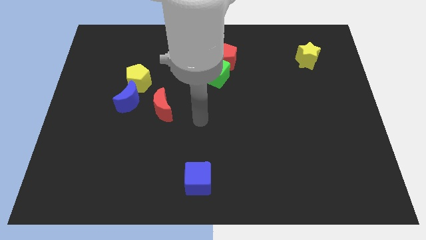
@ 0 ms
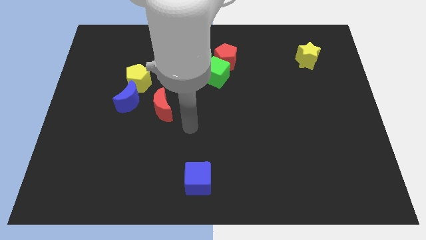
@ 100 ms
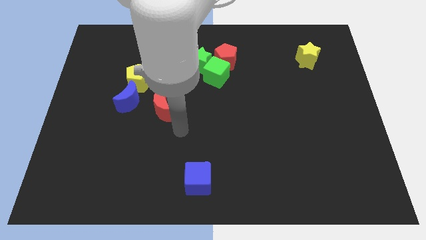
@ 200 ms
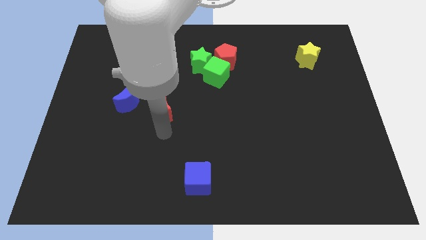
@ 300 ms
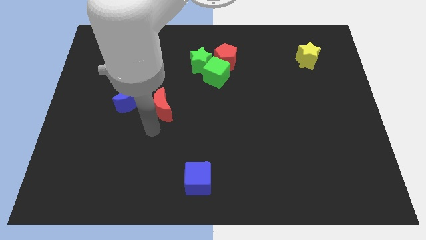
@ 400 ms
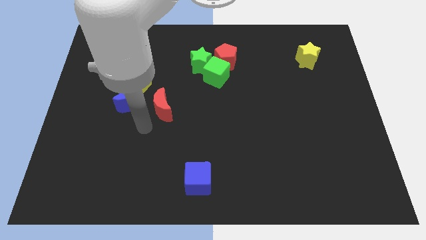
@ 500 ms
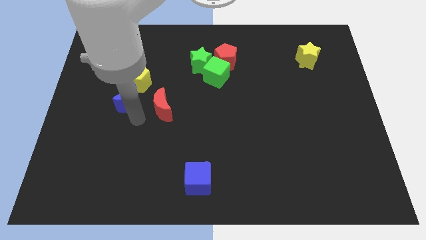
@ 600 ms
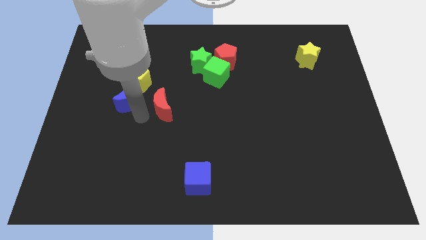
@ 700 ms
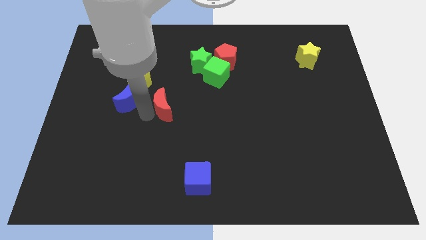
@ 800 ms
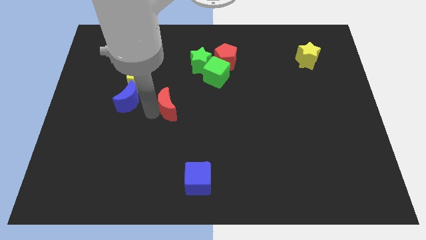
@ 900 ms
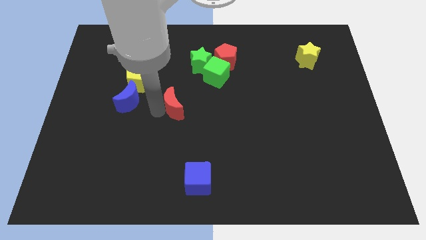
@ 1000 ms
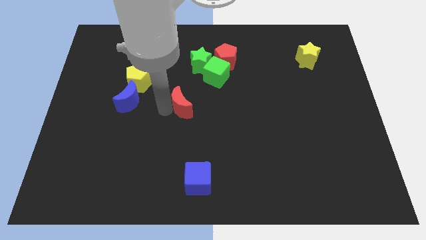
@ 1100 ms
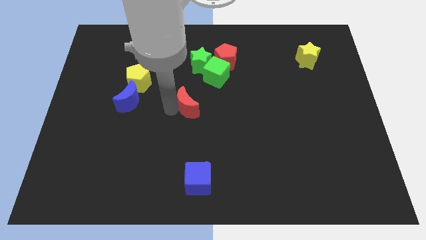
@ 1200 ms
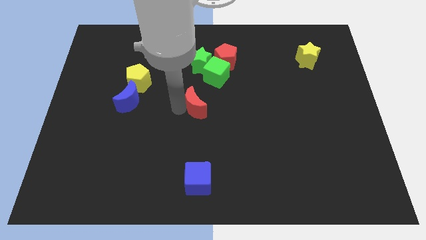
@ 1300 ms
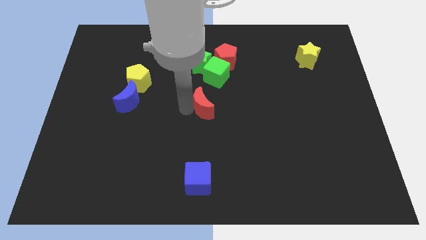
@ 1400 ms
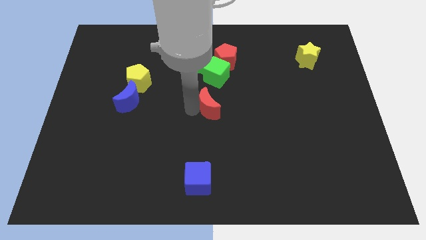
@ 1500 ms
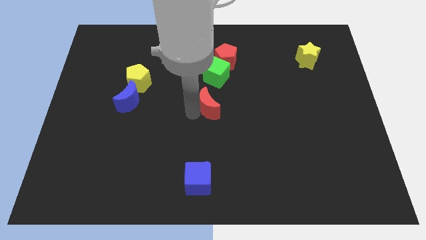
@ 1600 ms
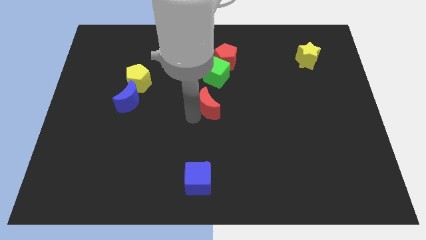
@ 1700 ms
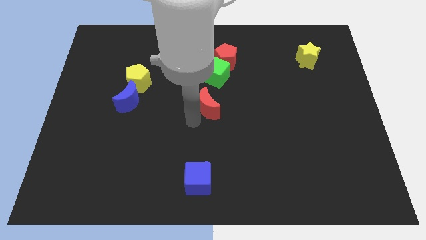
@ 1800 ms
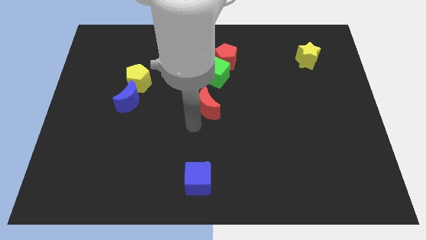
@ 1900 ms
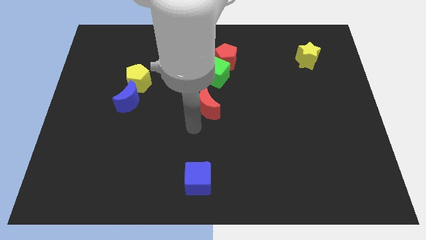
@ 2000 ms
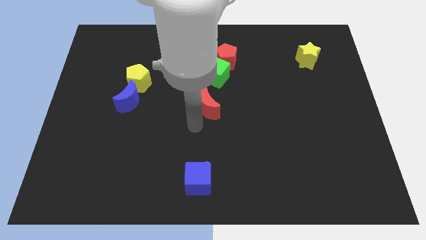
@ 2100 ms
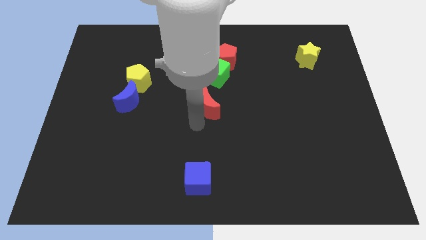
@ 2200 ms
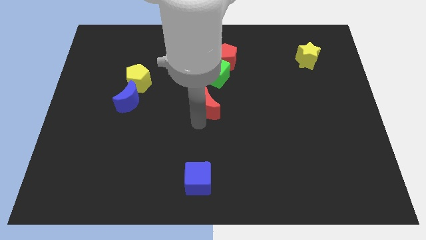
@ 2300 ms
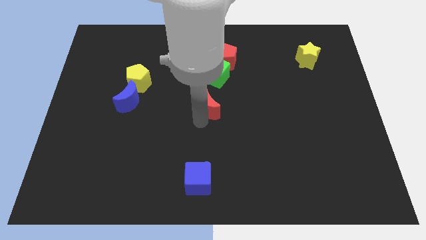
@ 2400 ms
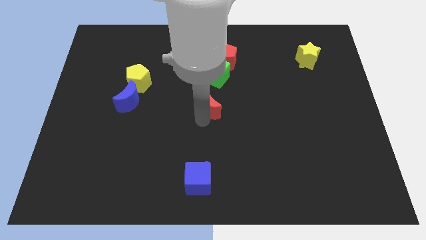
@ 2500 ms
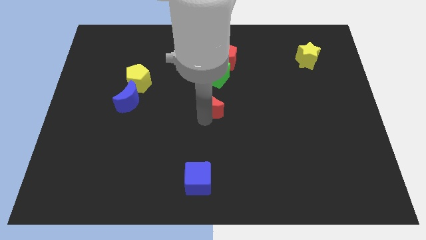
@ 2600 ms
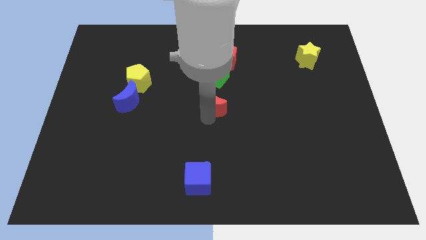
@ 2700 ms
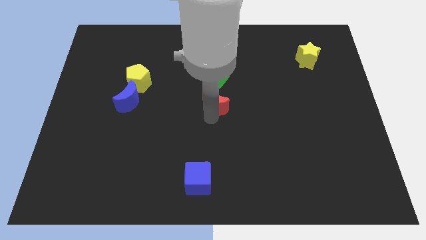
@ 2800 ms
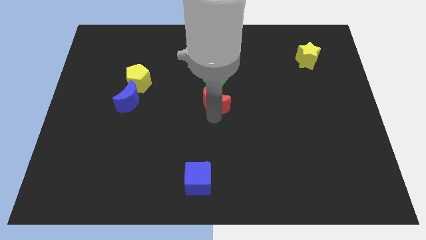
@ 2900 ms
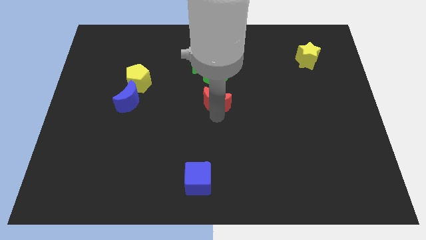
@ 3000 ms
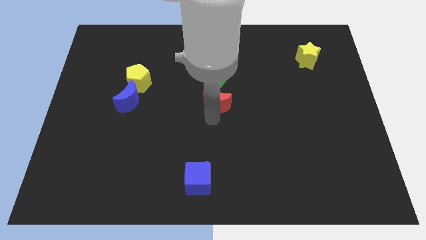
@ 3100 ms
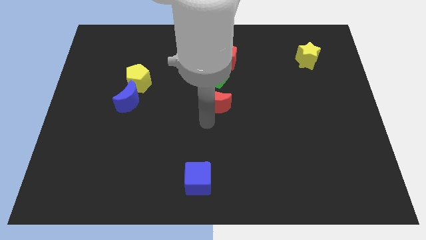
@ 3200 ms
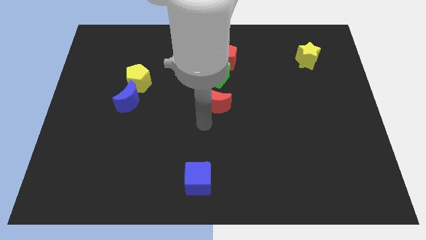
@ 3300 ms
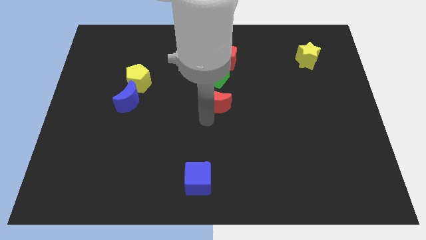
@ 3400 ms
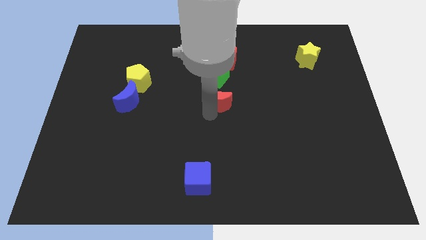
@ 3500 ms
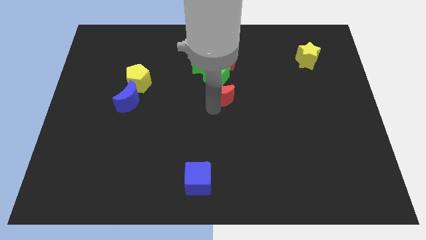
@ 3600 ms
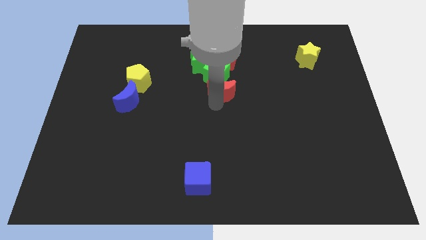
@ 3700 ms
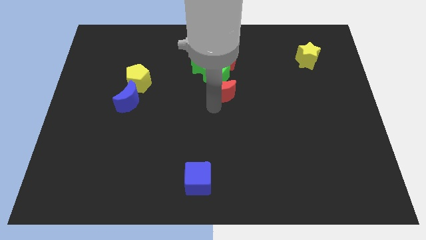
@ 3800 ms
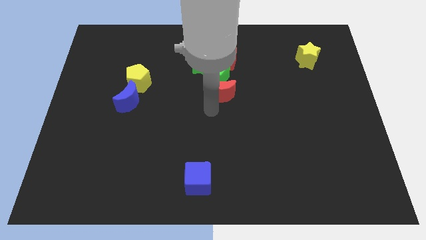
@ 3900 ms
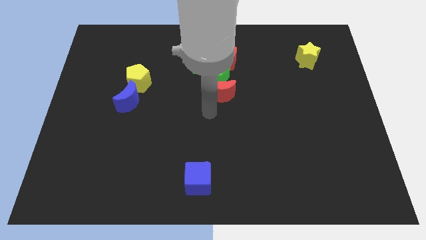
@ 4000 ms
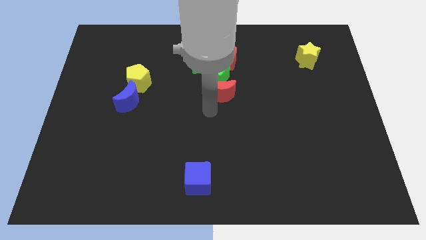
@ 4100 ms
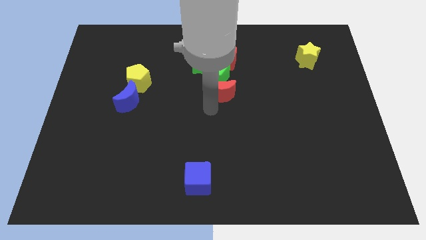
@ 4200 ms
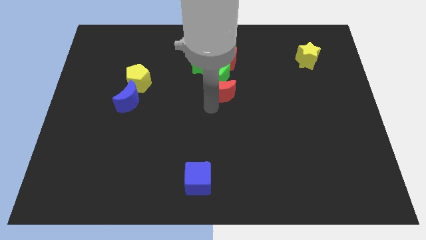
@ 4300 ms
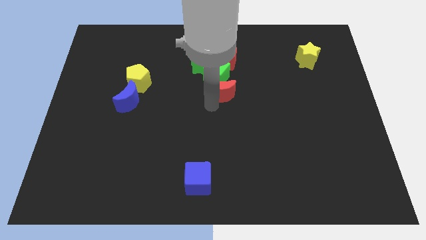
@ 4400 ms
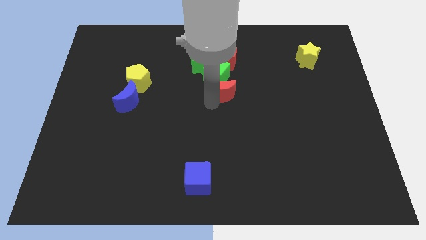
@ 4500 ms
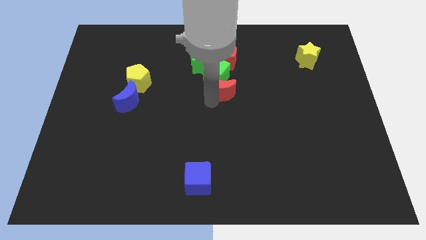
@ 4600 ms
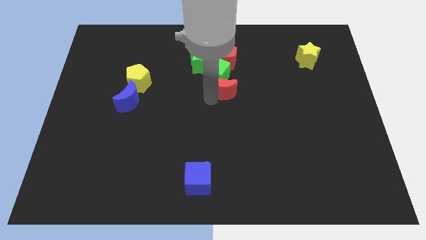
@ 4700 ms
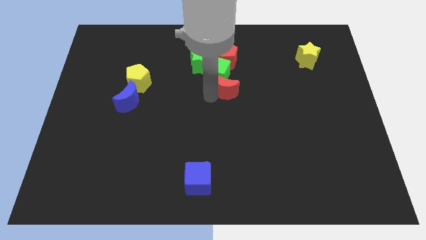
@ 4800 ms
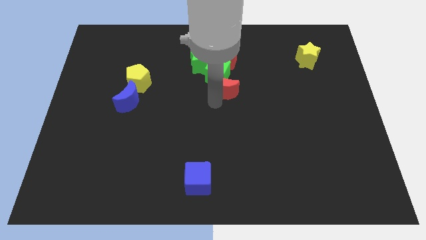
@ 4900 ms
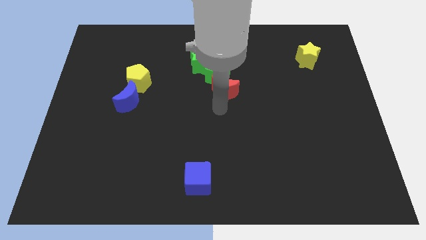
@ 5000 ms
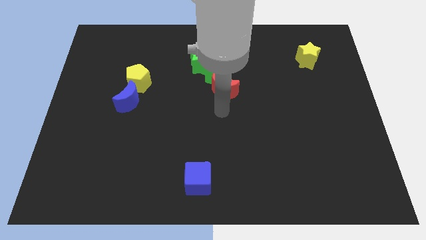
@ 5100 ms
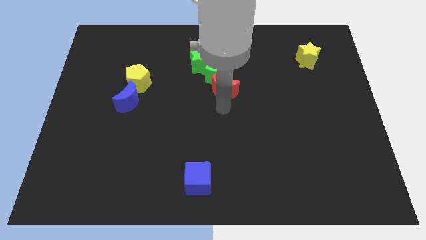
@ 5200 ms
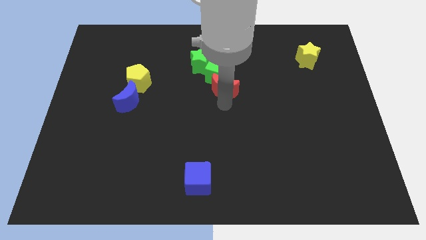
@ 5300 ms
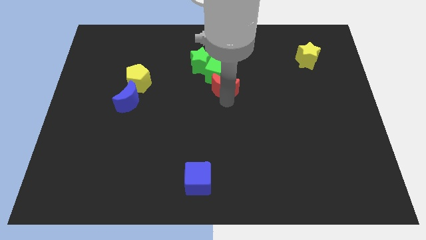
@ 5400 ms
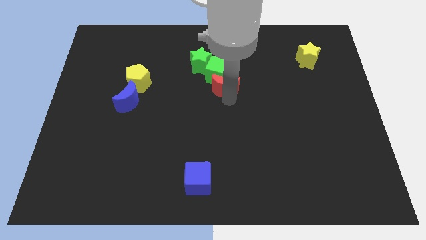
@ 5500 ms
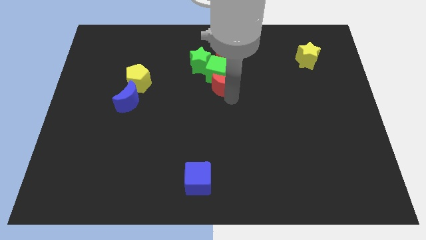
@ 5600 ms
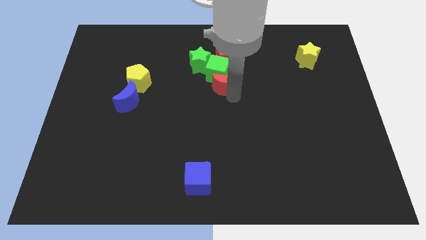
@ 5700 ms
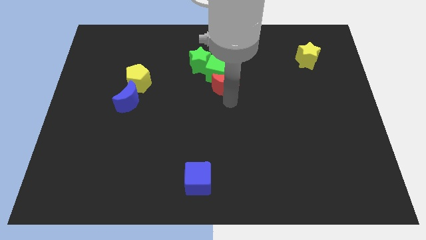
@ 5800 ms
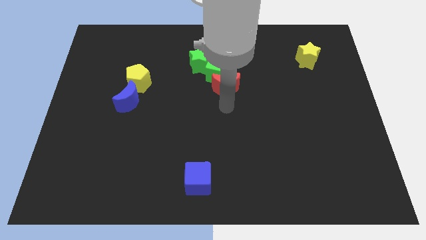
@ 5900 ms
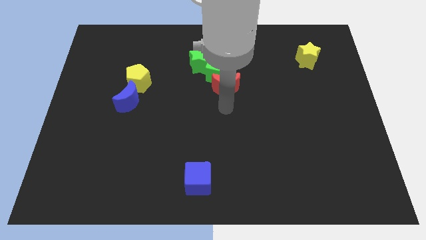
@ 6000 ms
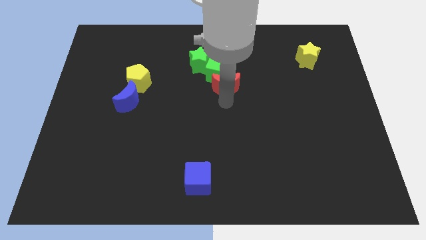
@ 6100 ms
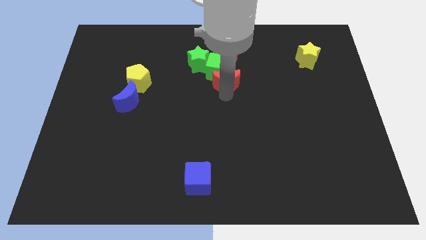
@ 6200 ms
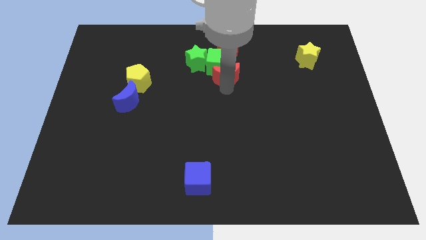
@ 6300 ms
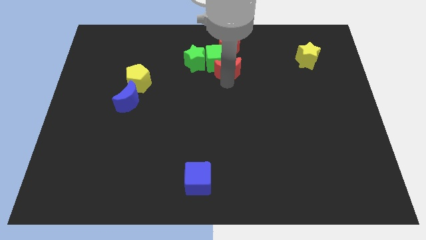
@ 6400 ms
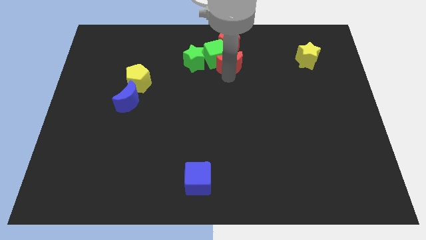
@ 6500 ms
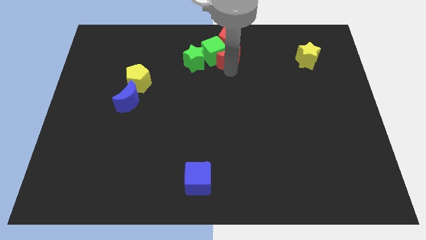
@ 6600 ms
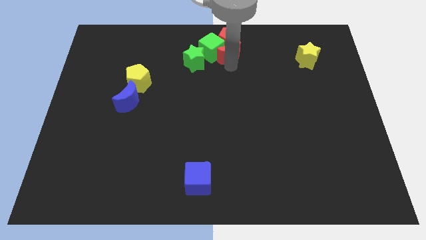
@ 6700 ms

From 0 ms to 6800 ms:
put the red moon close to the red pentagon

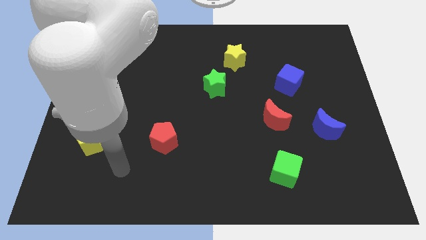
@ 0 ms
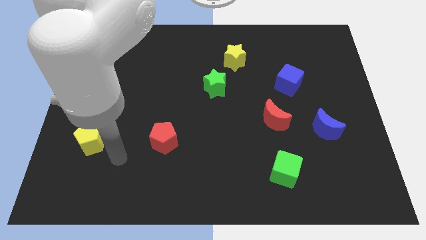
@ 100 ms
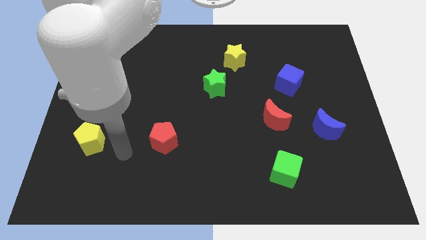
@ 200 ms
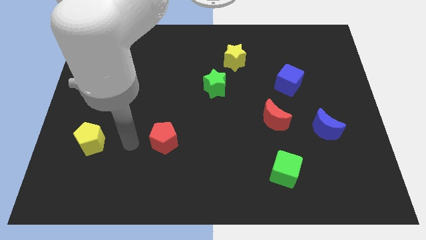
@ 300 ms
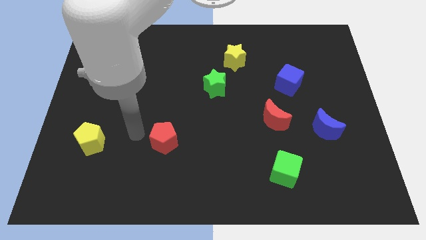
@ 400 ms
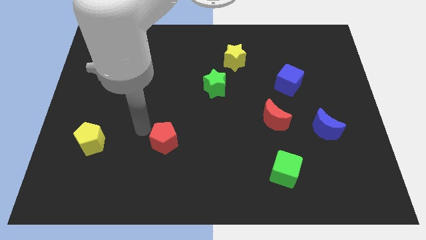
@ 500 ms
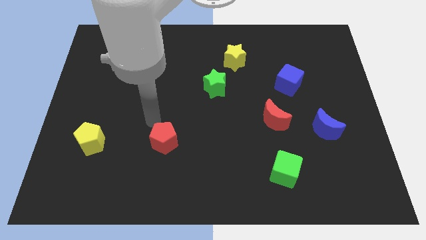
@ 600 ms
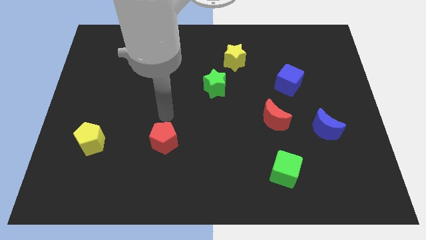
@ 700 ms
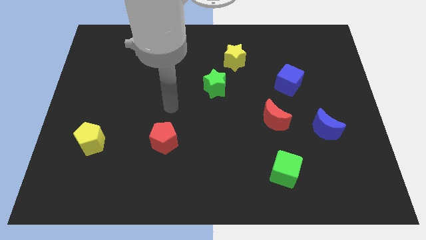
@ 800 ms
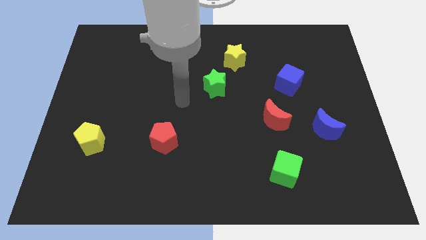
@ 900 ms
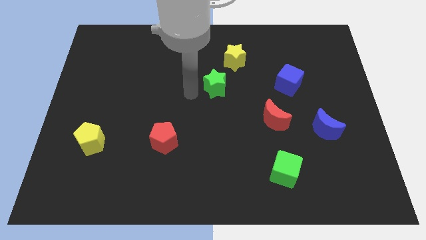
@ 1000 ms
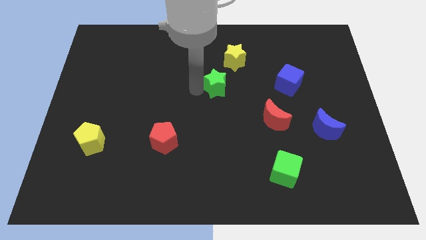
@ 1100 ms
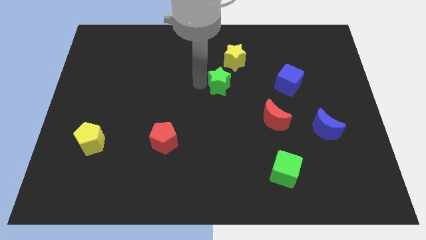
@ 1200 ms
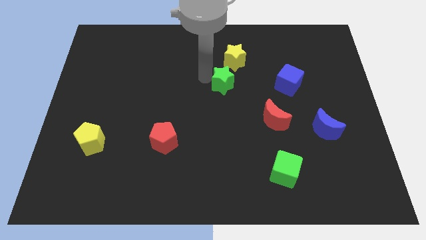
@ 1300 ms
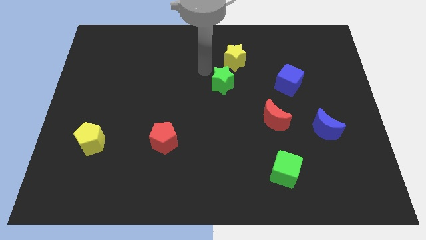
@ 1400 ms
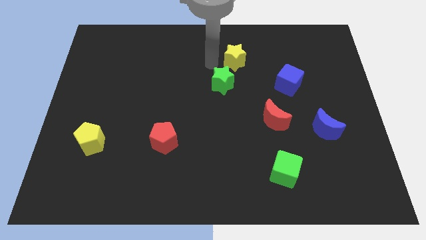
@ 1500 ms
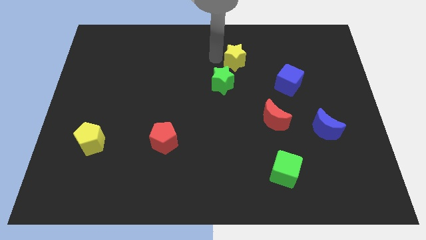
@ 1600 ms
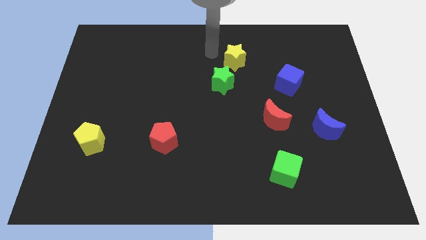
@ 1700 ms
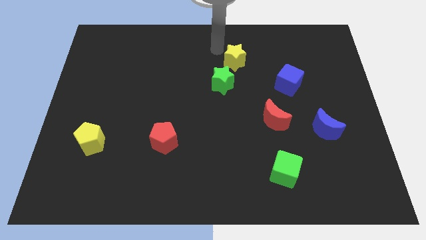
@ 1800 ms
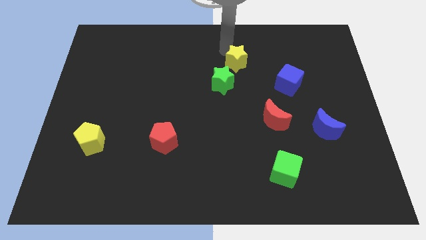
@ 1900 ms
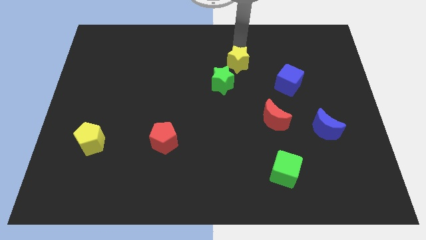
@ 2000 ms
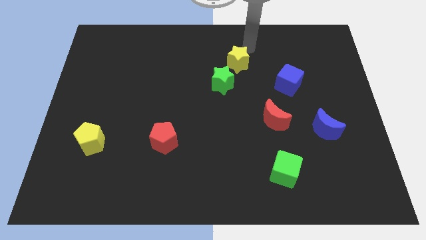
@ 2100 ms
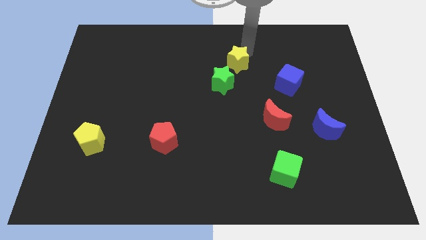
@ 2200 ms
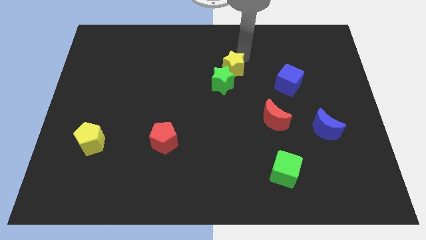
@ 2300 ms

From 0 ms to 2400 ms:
put the yellow star towards the green star
